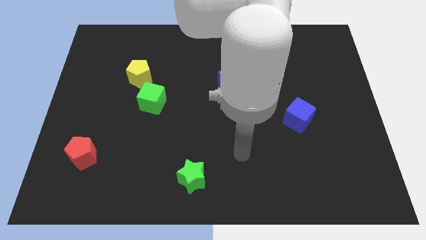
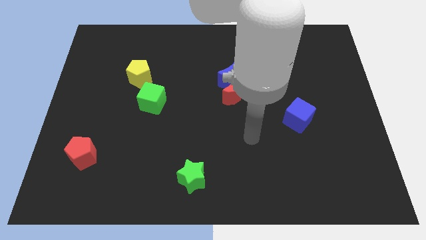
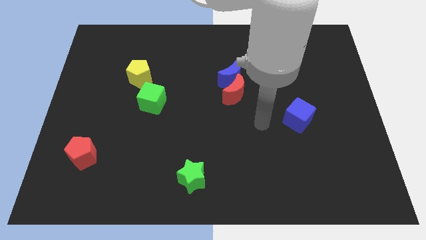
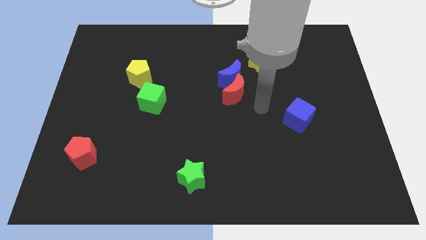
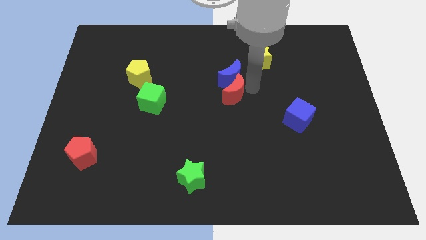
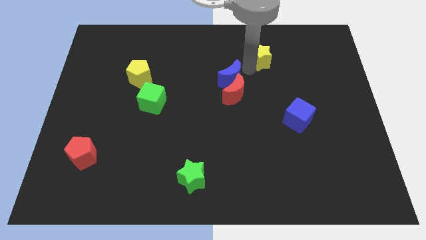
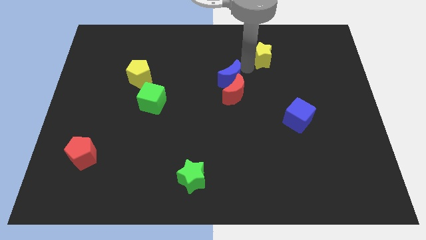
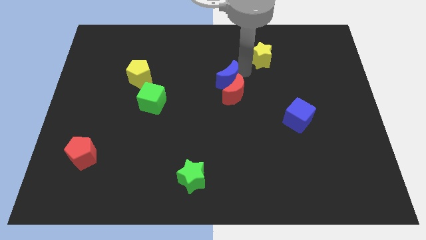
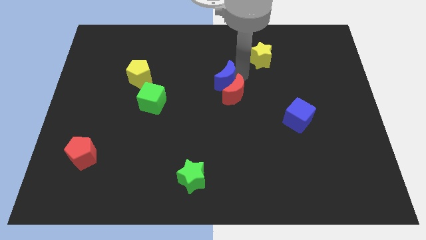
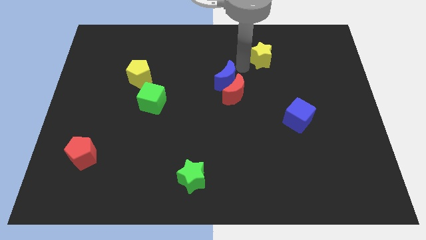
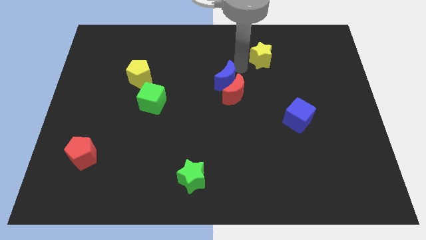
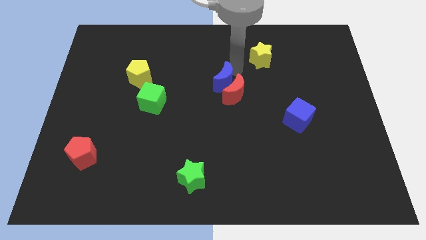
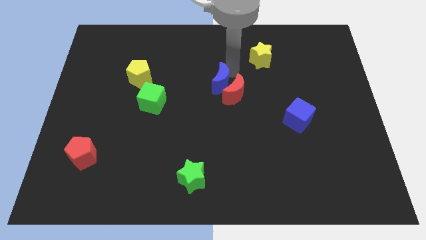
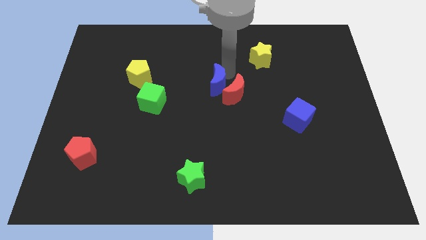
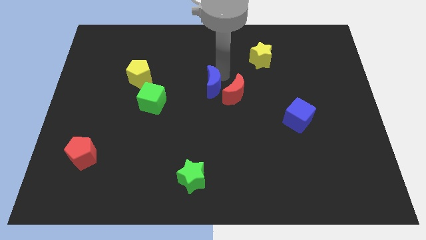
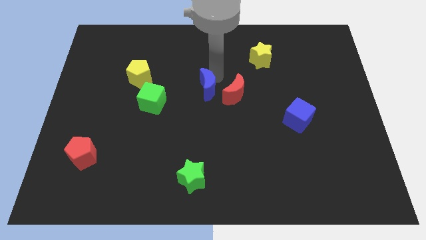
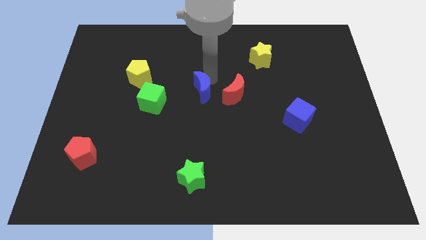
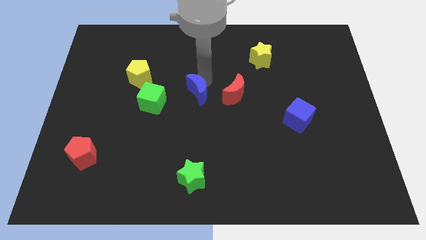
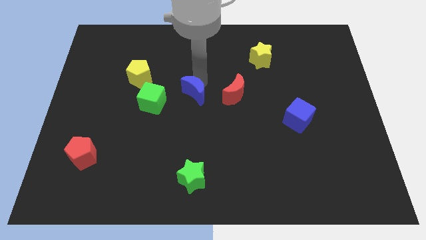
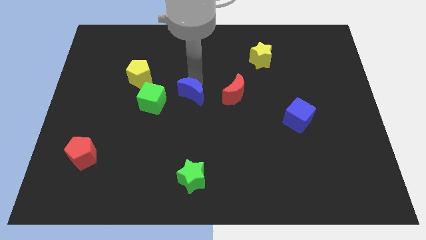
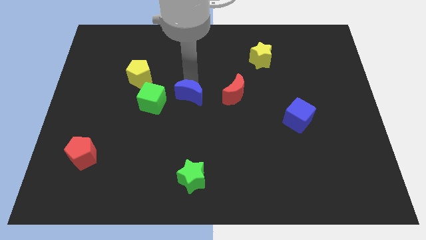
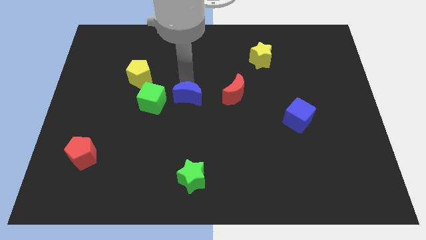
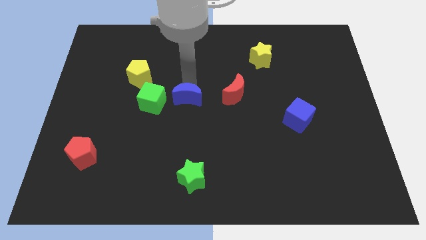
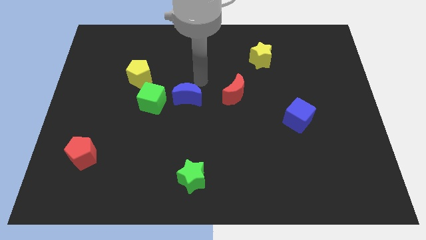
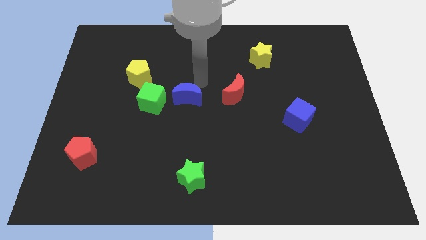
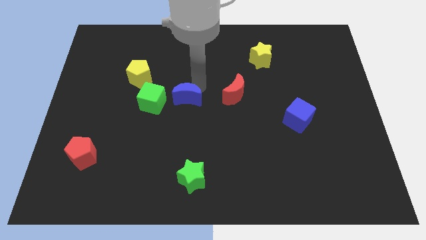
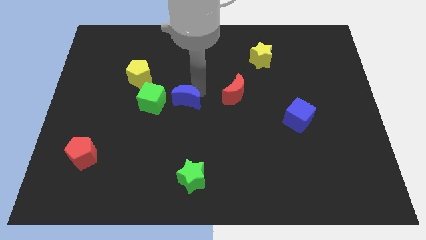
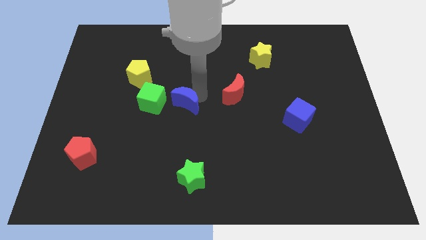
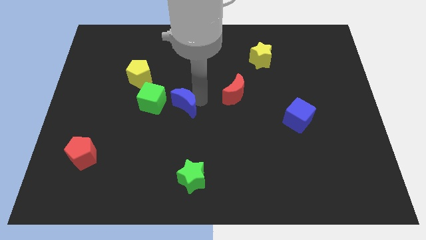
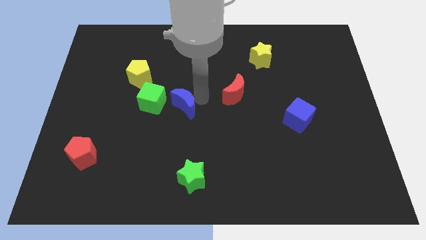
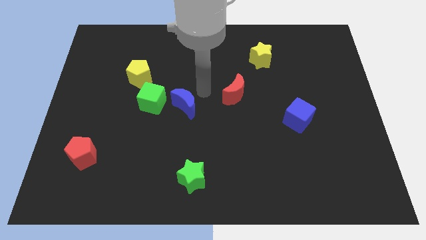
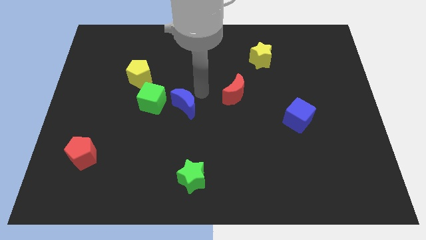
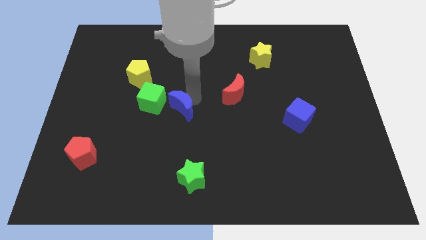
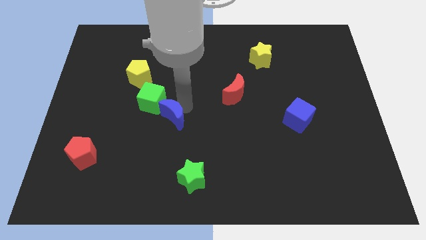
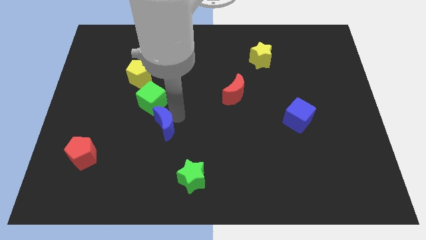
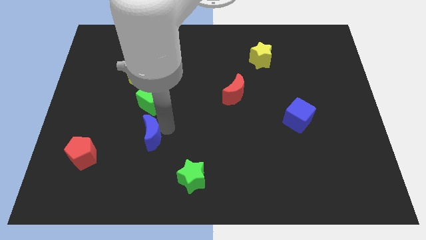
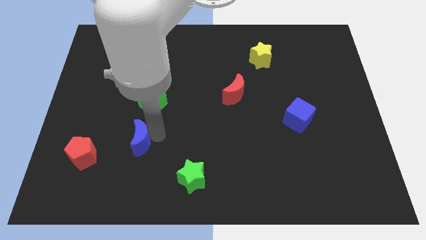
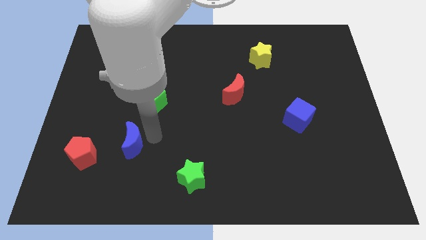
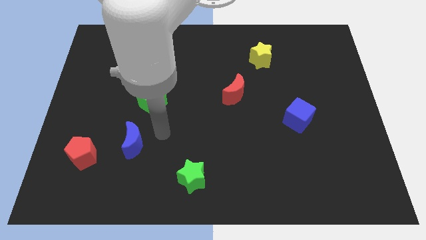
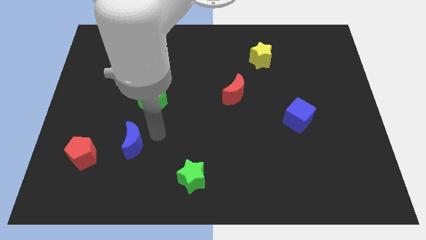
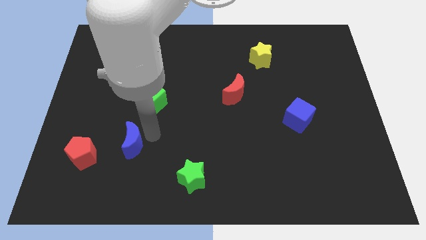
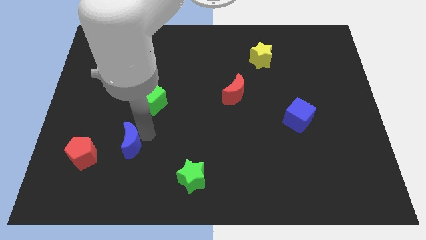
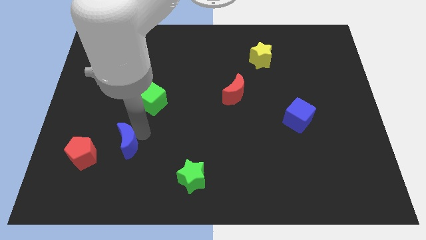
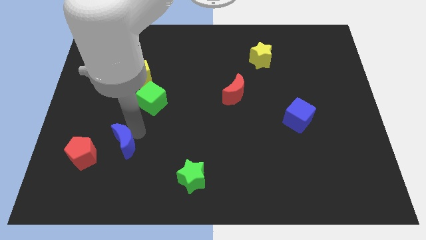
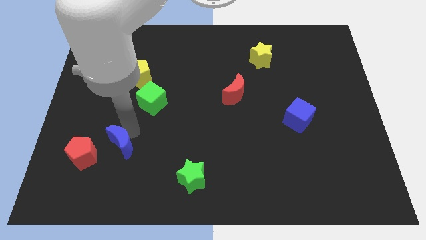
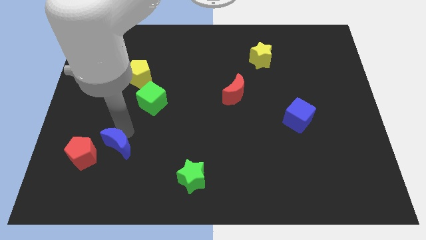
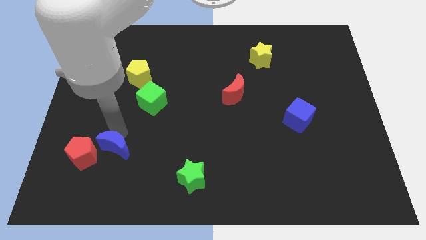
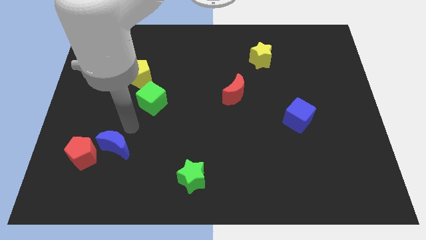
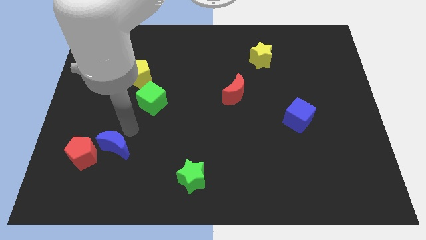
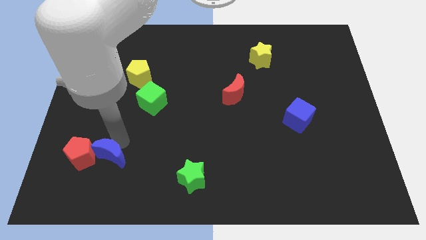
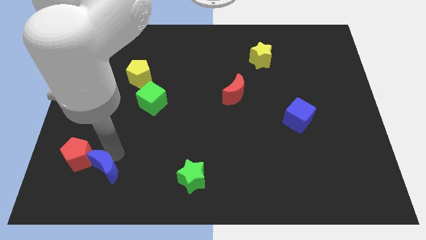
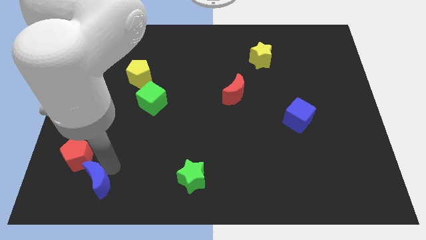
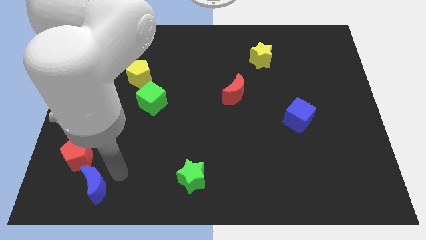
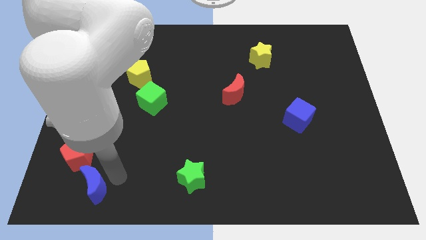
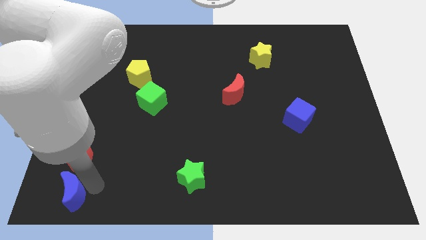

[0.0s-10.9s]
put the blue moon to the bottom left
